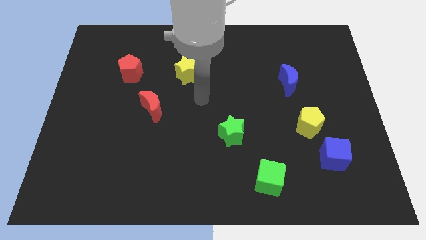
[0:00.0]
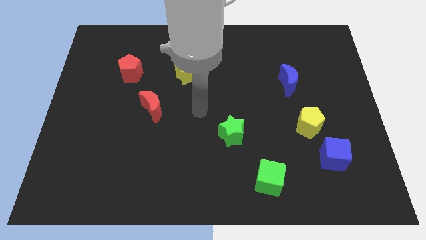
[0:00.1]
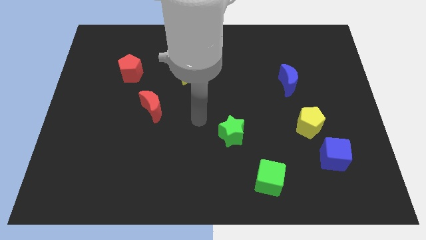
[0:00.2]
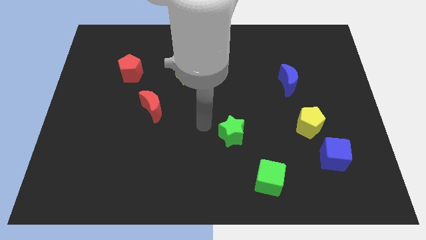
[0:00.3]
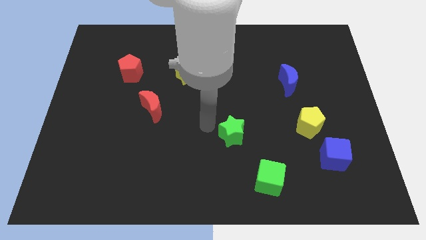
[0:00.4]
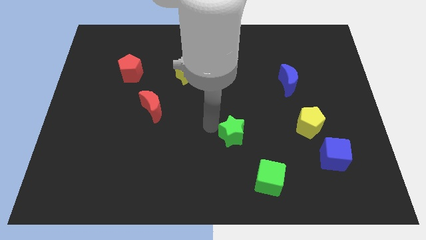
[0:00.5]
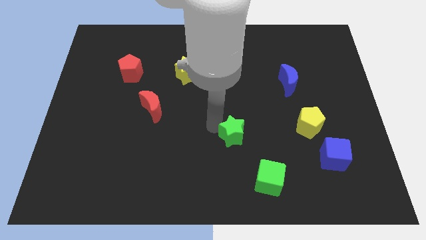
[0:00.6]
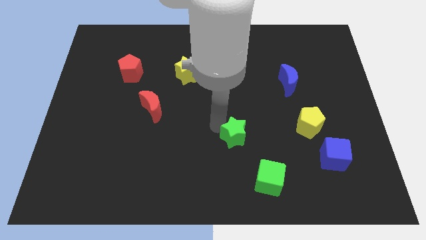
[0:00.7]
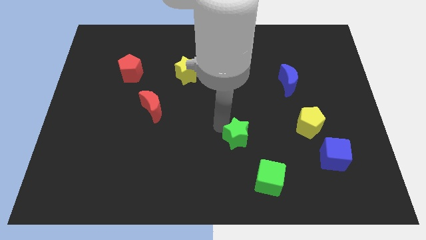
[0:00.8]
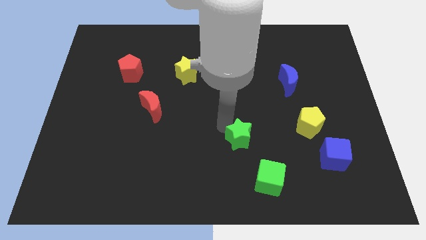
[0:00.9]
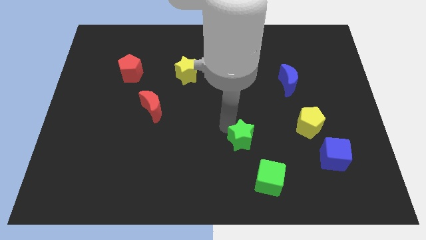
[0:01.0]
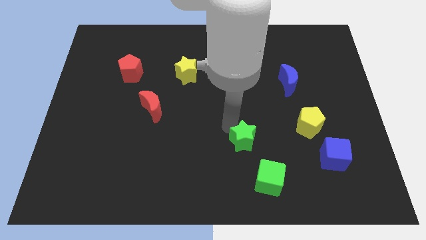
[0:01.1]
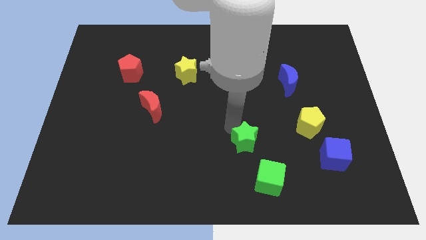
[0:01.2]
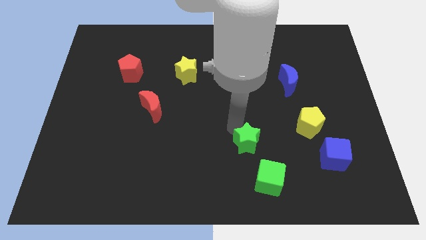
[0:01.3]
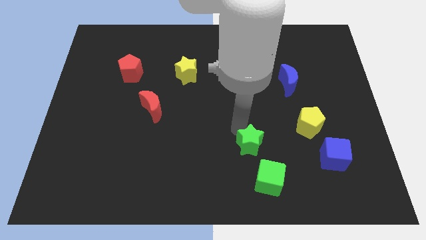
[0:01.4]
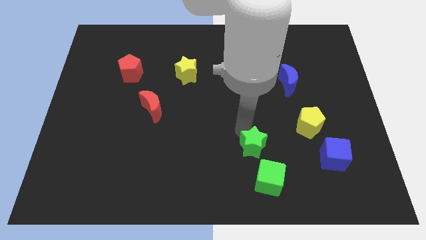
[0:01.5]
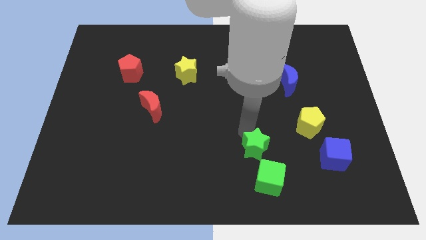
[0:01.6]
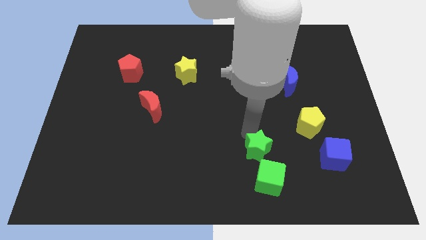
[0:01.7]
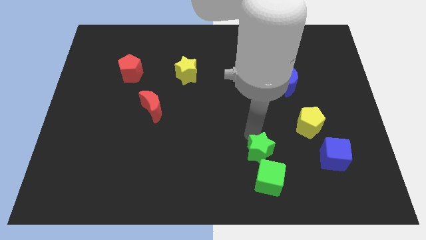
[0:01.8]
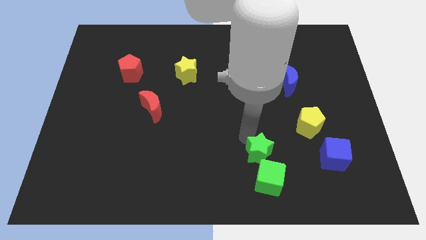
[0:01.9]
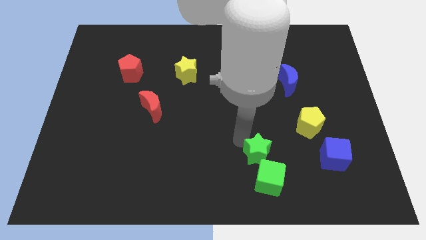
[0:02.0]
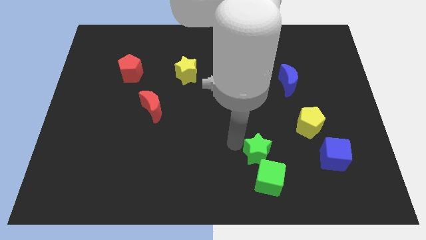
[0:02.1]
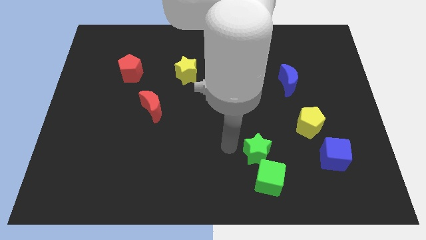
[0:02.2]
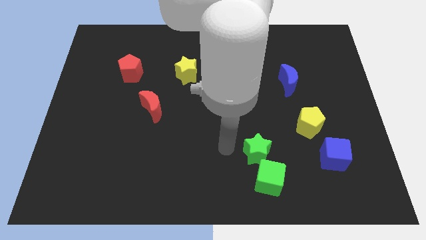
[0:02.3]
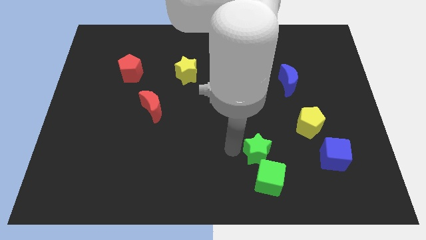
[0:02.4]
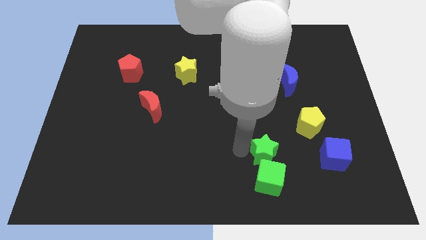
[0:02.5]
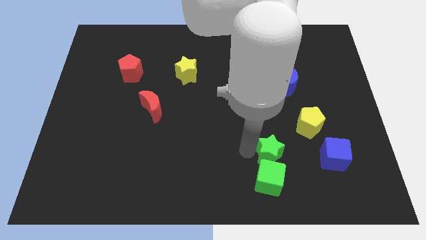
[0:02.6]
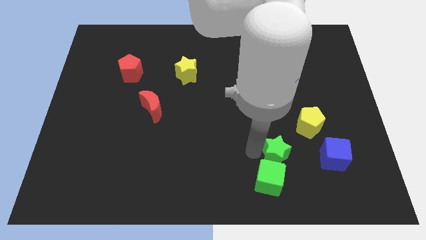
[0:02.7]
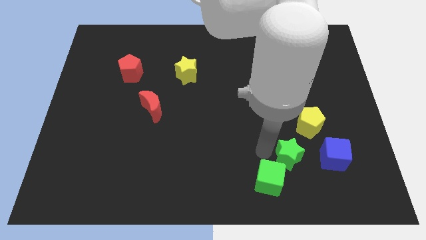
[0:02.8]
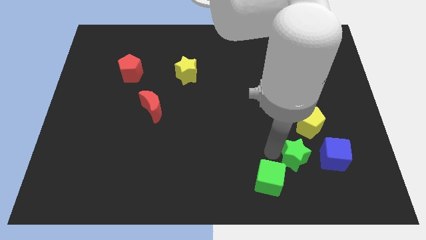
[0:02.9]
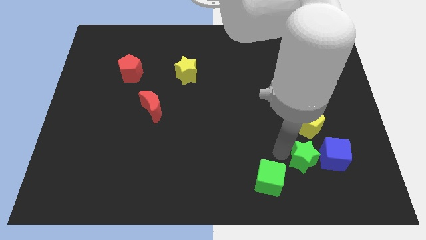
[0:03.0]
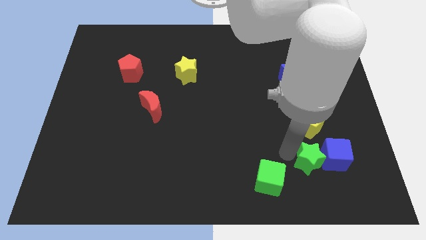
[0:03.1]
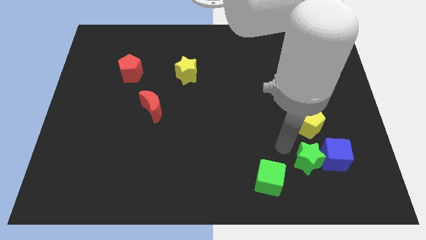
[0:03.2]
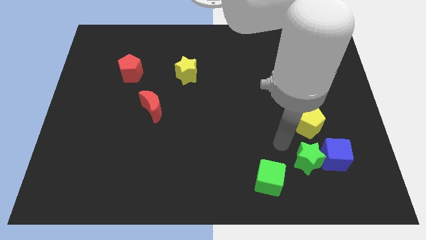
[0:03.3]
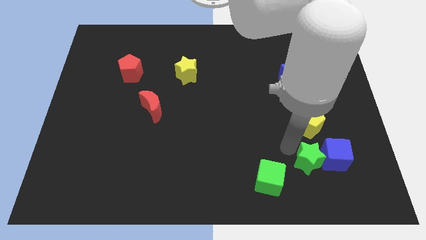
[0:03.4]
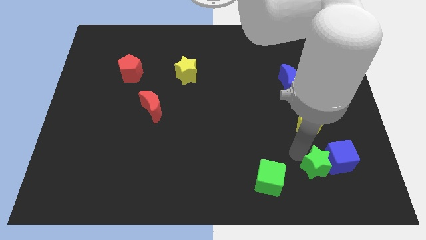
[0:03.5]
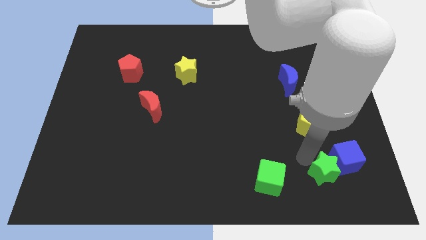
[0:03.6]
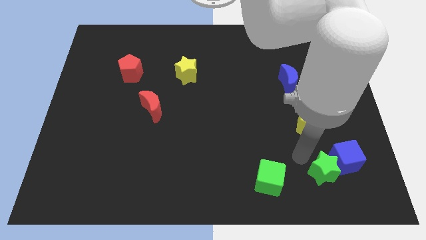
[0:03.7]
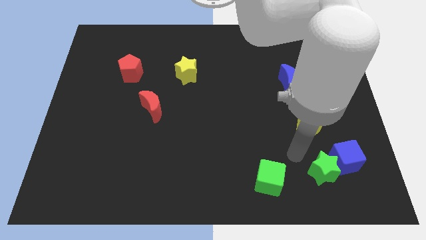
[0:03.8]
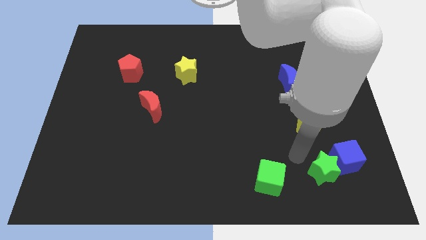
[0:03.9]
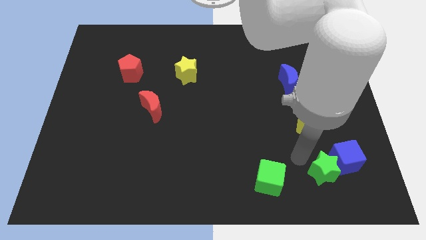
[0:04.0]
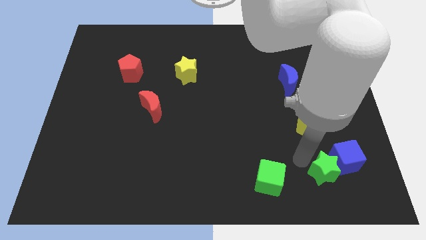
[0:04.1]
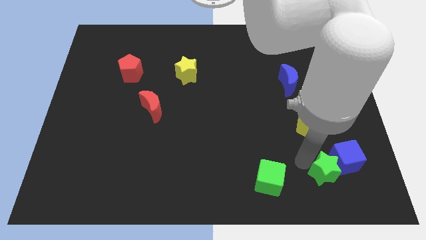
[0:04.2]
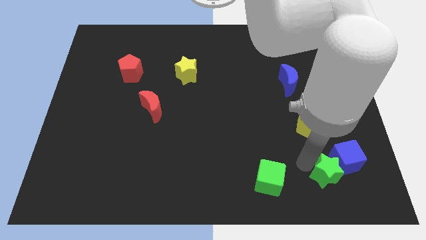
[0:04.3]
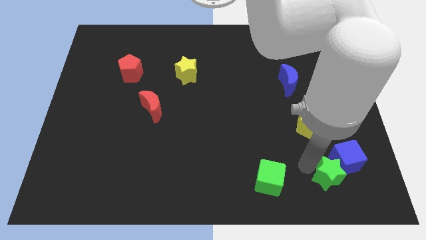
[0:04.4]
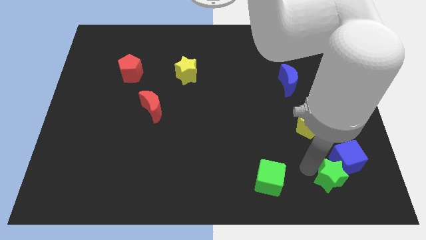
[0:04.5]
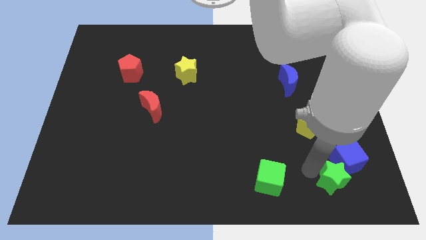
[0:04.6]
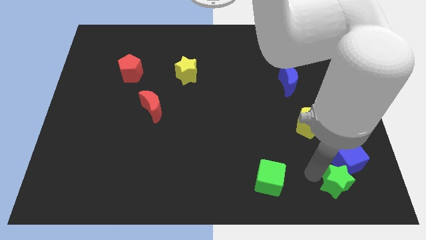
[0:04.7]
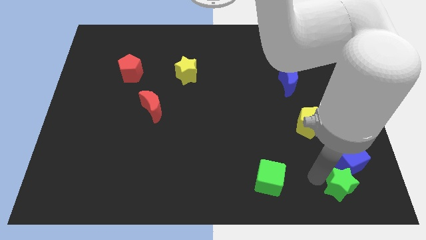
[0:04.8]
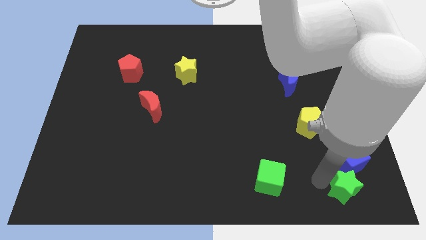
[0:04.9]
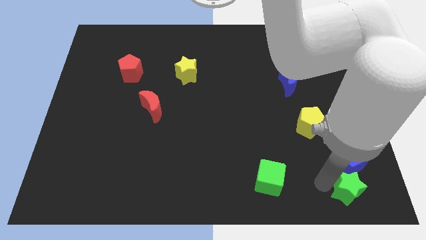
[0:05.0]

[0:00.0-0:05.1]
move the green star to the lower right corner

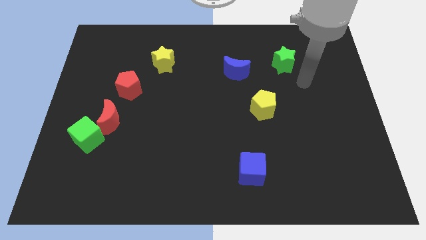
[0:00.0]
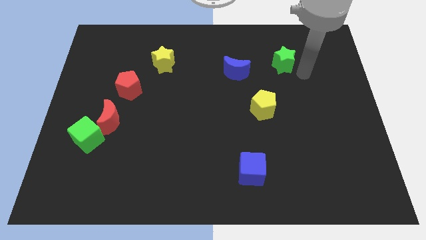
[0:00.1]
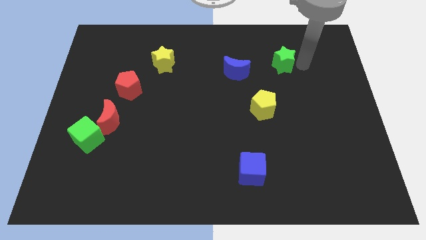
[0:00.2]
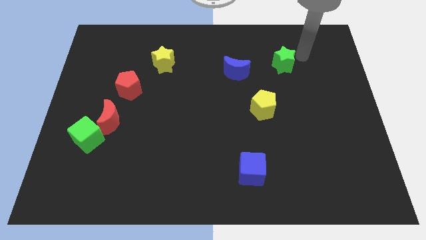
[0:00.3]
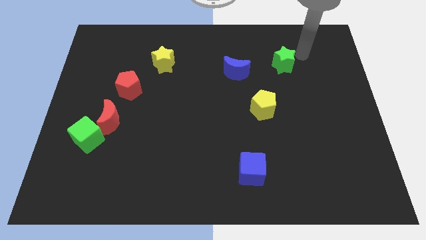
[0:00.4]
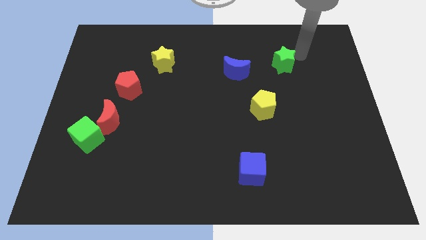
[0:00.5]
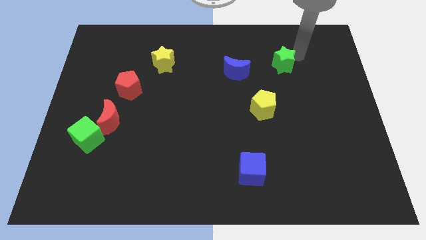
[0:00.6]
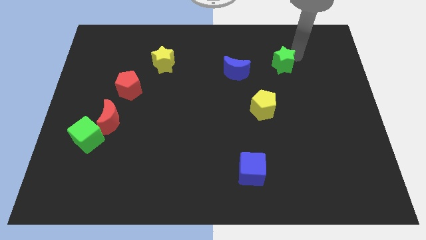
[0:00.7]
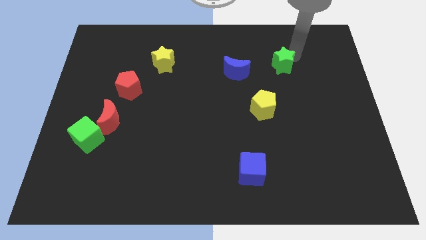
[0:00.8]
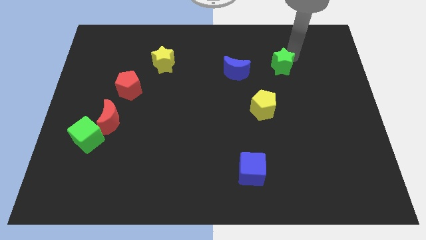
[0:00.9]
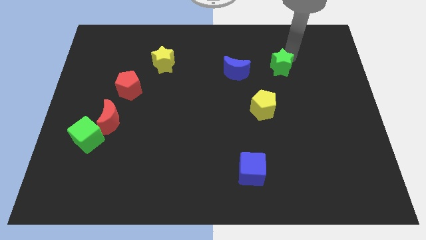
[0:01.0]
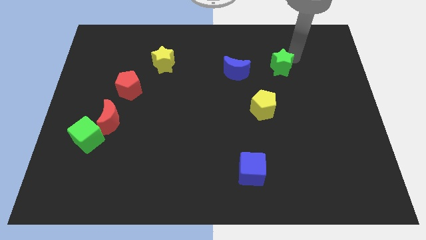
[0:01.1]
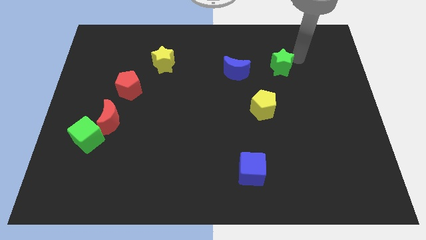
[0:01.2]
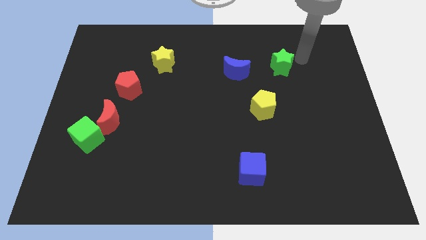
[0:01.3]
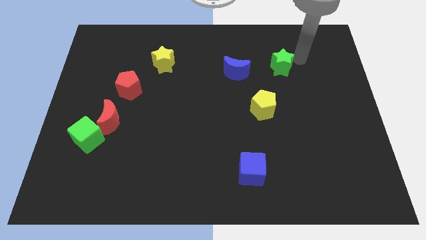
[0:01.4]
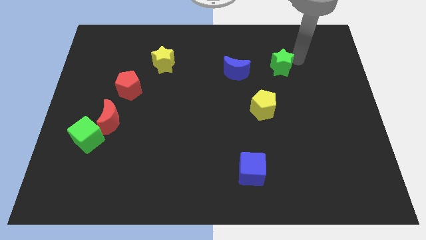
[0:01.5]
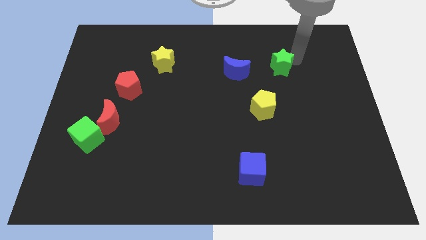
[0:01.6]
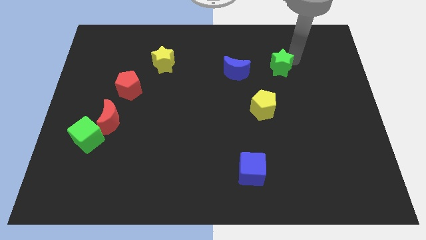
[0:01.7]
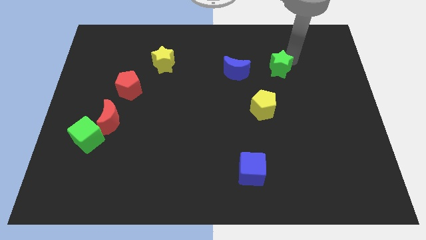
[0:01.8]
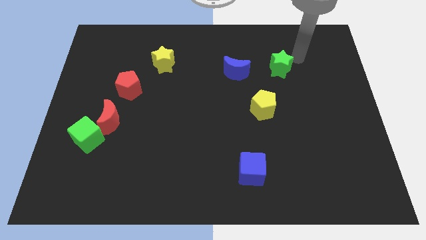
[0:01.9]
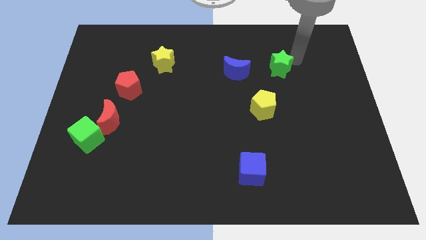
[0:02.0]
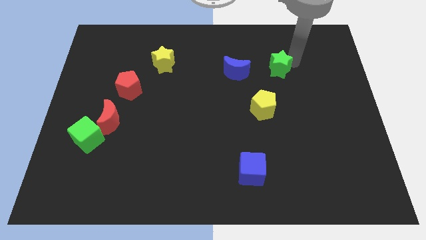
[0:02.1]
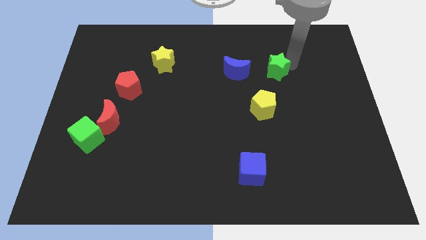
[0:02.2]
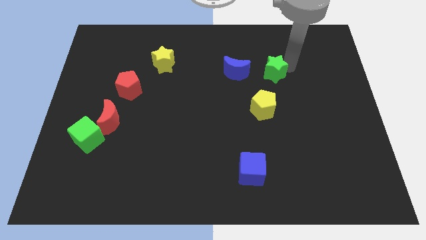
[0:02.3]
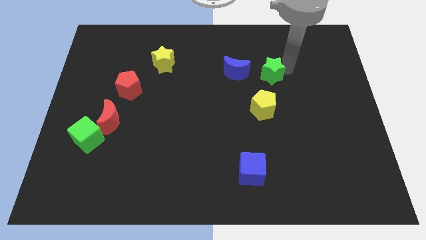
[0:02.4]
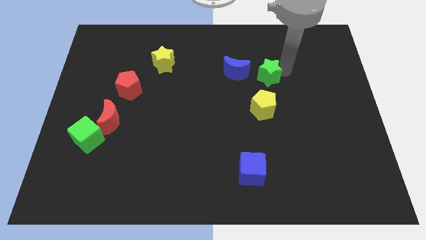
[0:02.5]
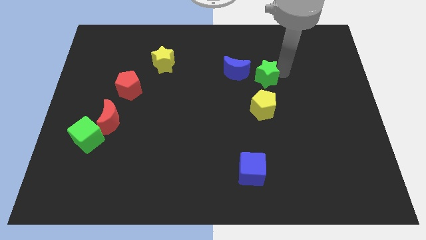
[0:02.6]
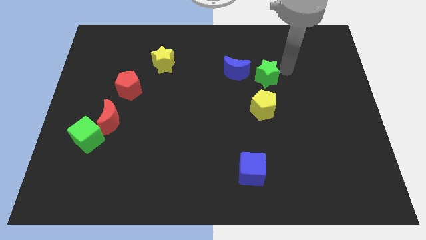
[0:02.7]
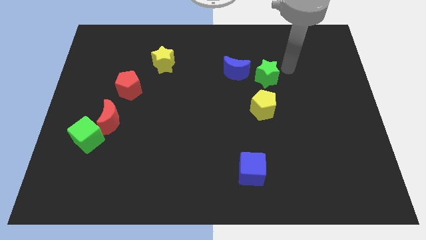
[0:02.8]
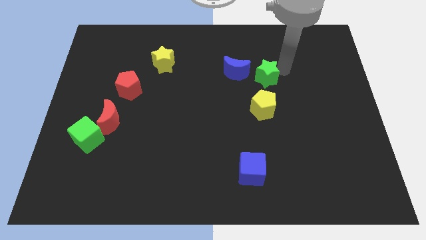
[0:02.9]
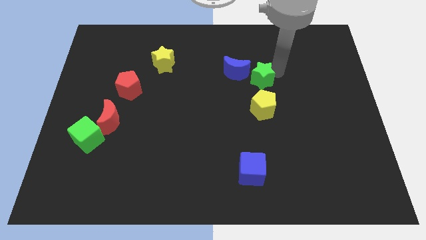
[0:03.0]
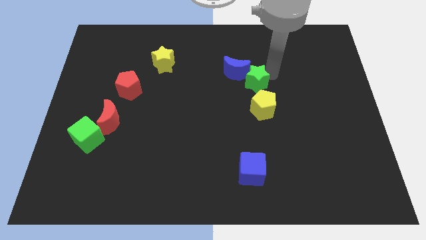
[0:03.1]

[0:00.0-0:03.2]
push the green star to the center of the board
